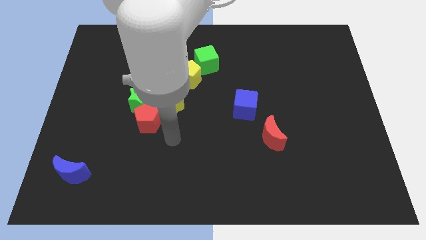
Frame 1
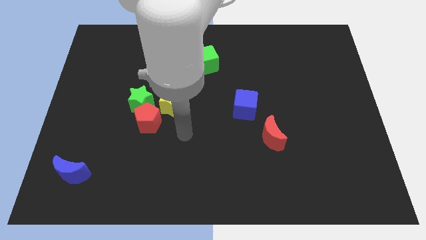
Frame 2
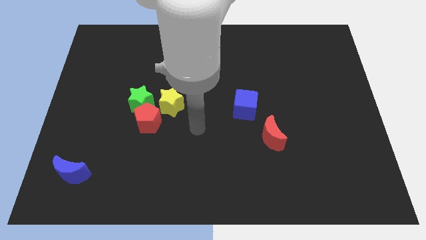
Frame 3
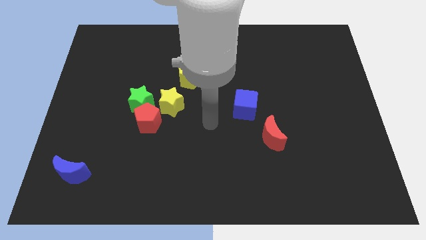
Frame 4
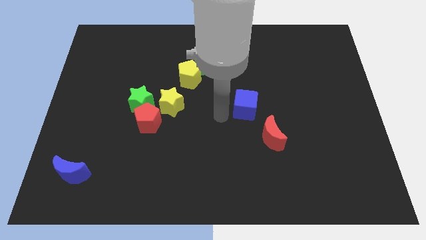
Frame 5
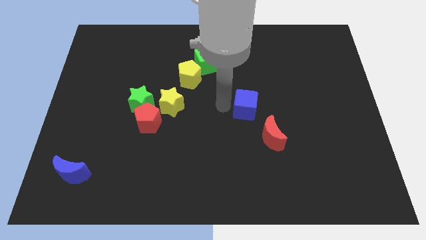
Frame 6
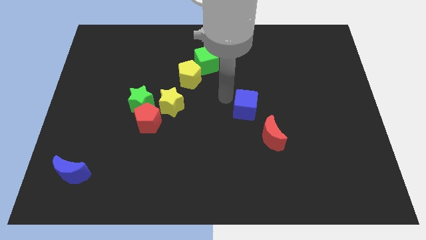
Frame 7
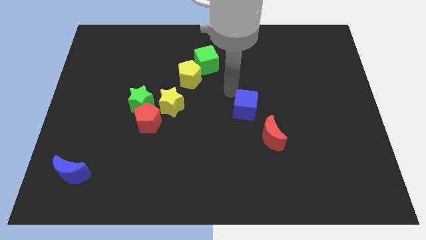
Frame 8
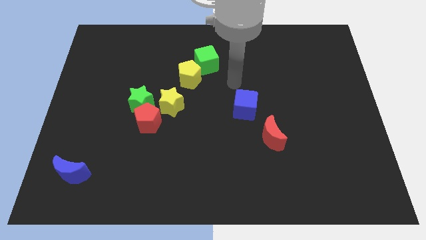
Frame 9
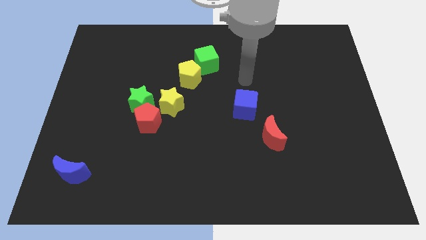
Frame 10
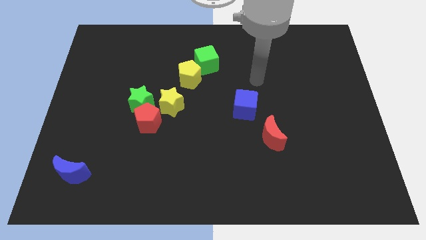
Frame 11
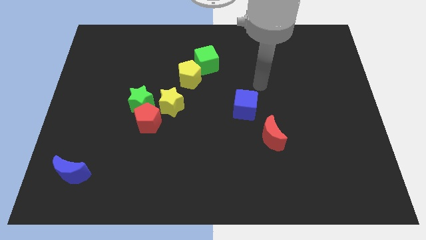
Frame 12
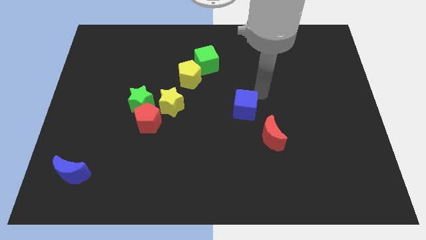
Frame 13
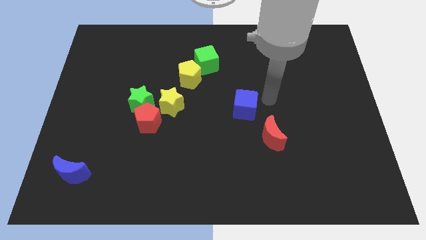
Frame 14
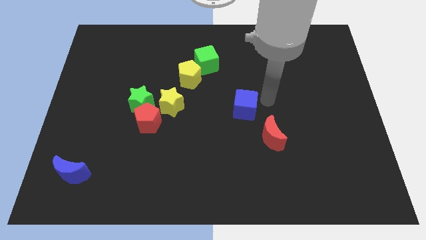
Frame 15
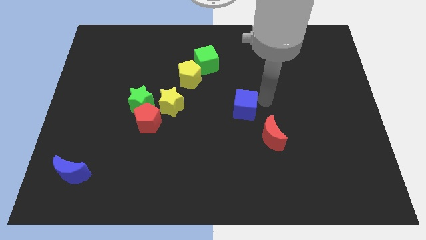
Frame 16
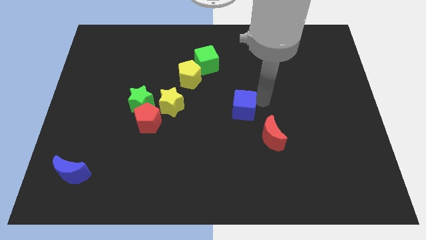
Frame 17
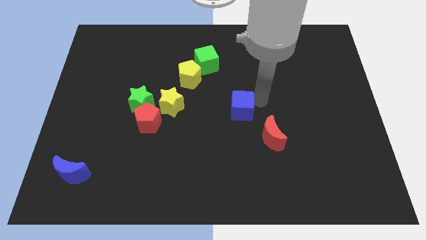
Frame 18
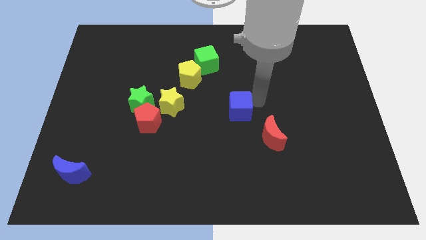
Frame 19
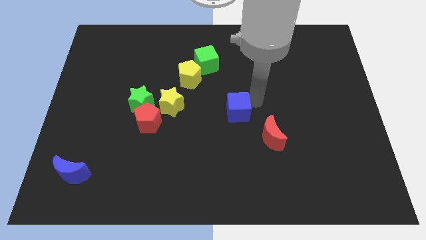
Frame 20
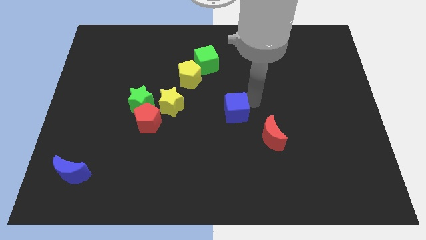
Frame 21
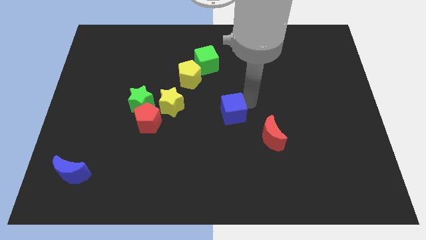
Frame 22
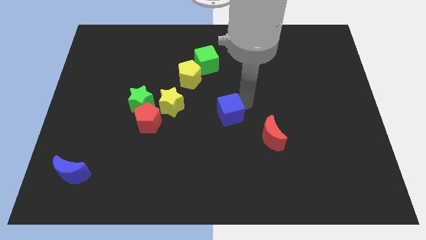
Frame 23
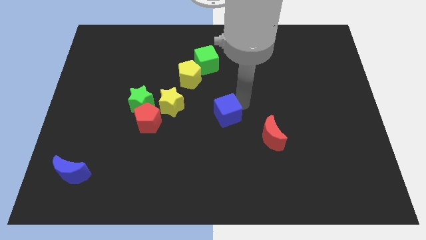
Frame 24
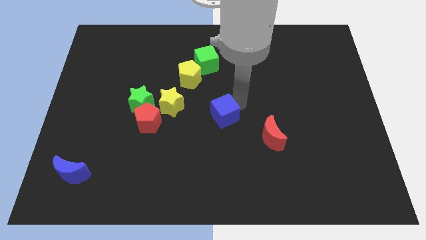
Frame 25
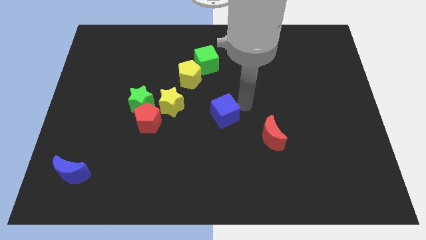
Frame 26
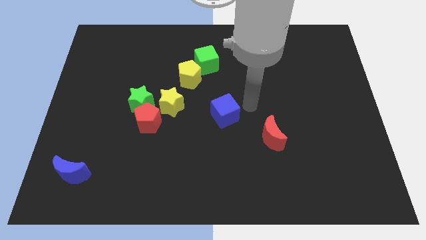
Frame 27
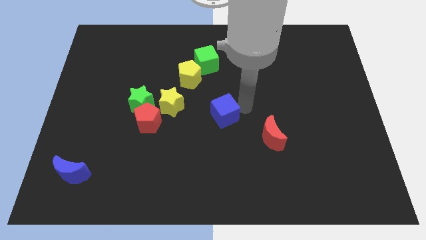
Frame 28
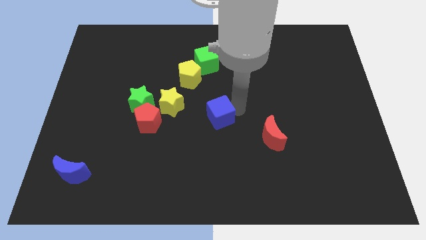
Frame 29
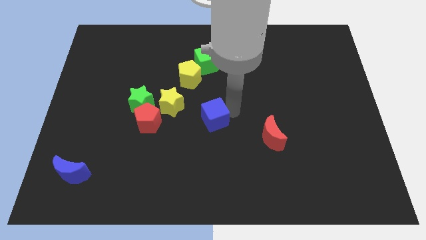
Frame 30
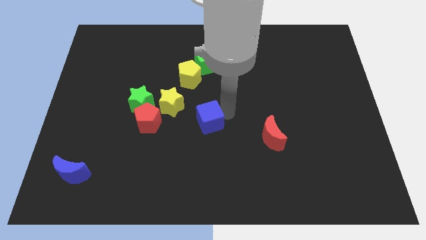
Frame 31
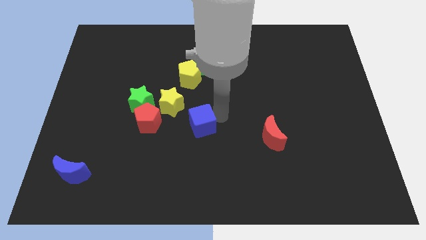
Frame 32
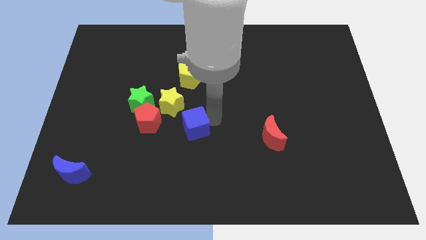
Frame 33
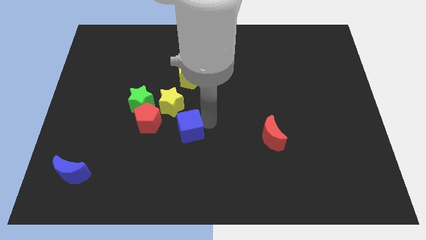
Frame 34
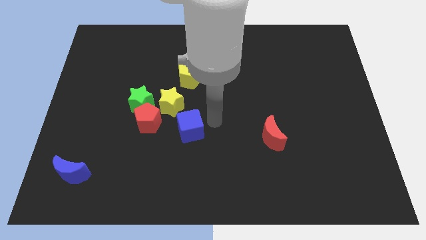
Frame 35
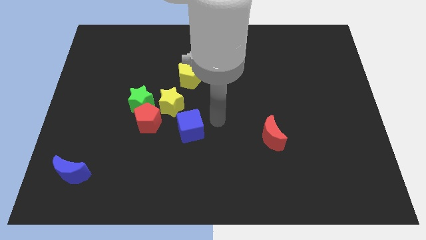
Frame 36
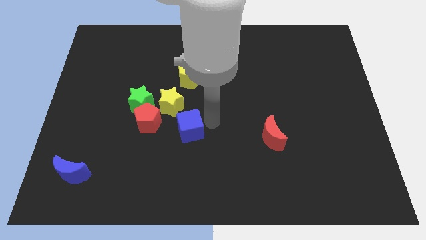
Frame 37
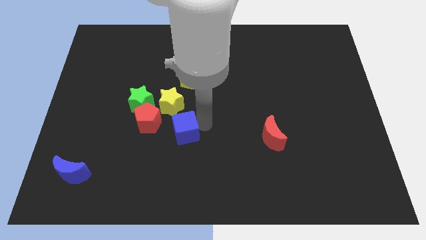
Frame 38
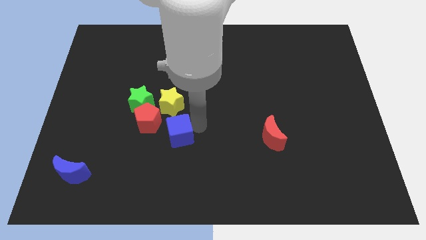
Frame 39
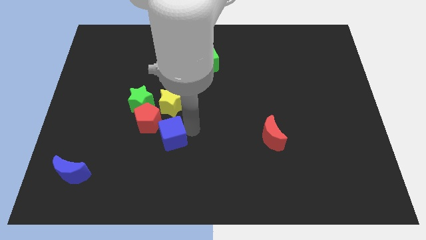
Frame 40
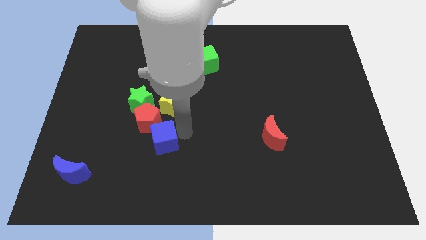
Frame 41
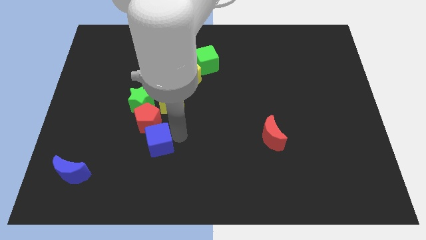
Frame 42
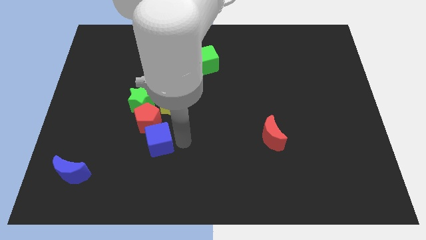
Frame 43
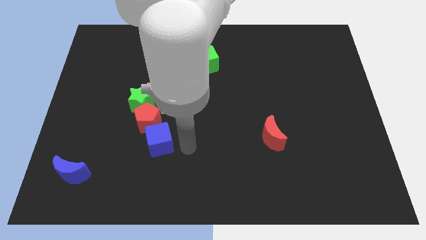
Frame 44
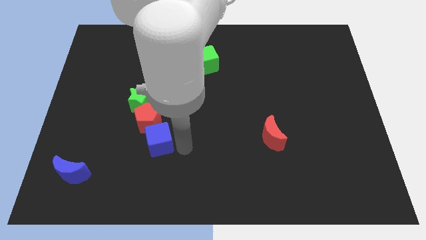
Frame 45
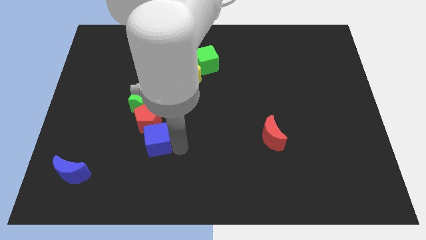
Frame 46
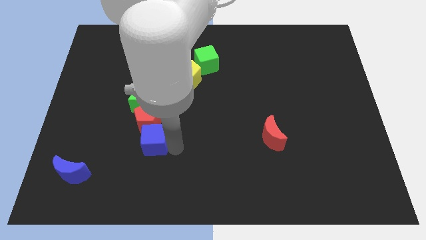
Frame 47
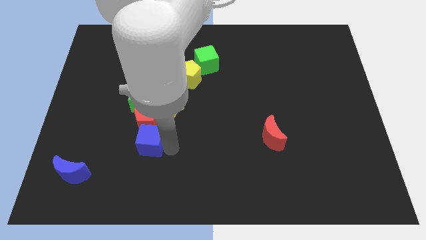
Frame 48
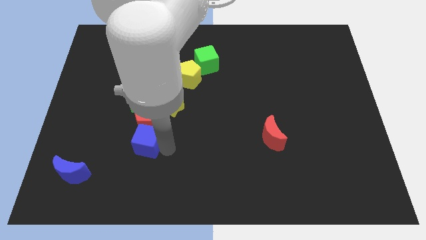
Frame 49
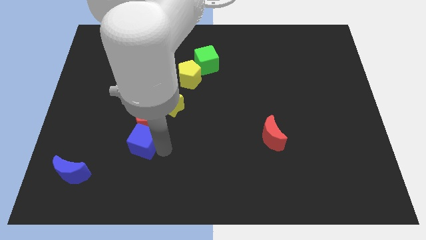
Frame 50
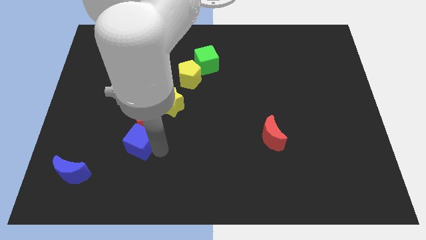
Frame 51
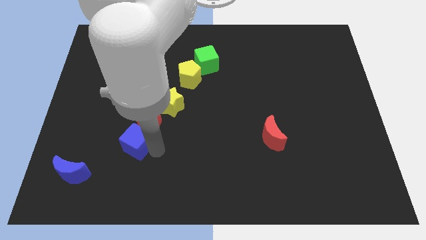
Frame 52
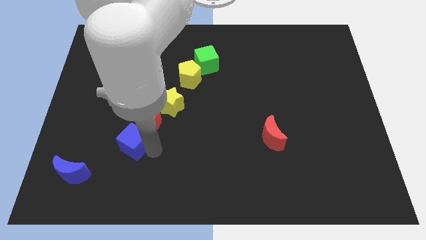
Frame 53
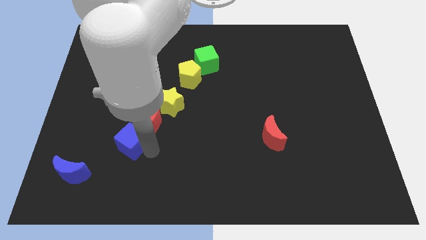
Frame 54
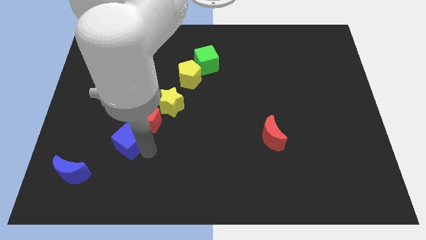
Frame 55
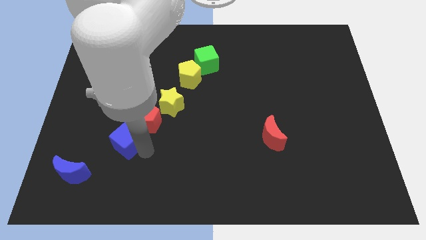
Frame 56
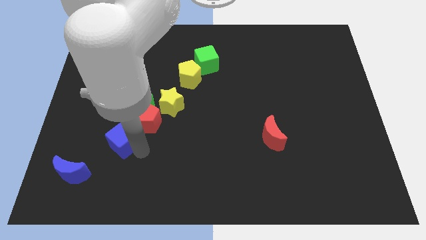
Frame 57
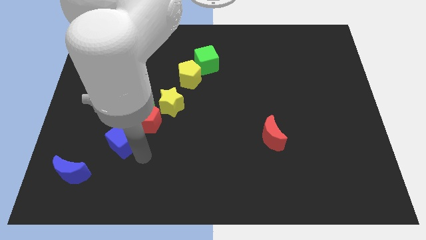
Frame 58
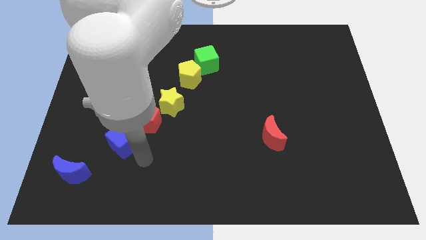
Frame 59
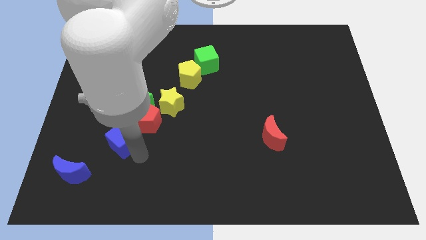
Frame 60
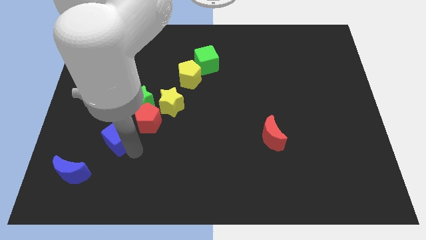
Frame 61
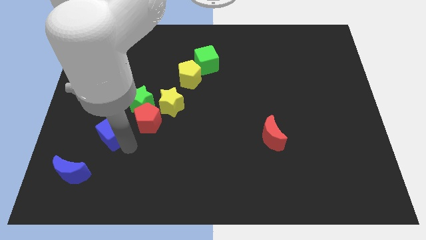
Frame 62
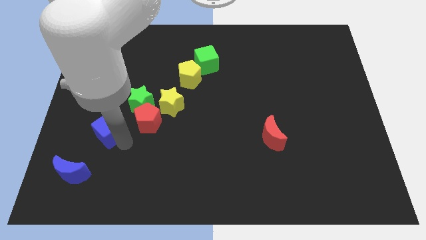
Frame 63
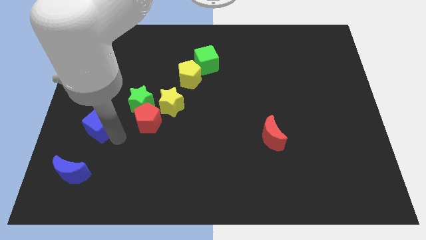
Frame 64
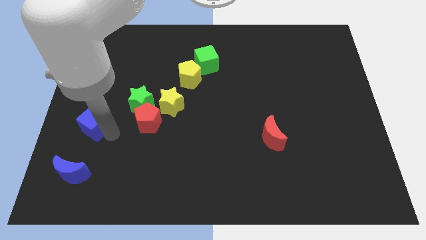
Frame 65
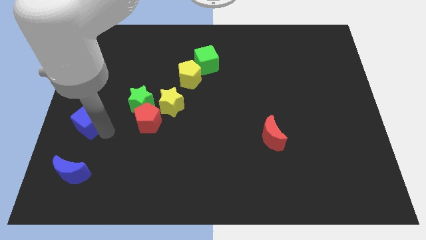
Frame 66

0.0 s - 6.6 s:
put the blue cube to the left side of the board
